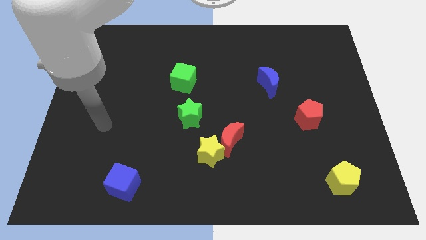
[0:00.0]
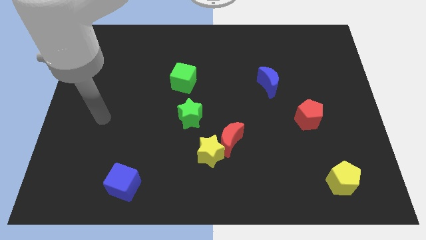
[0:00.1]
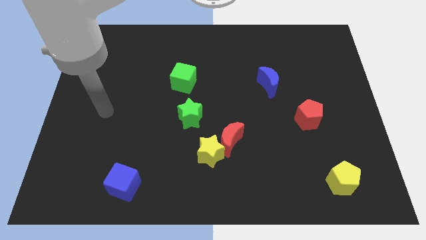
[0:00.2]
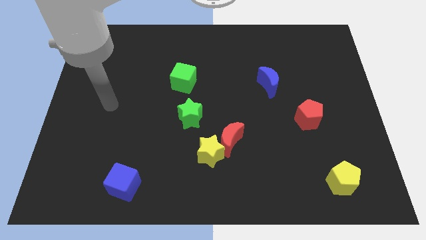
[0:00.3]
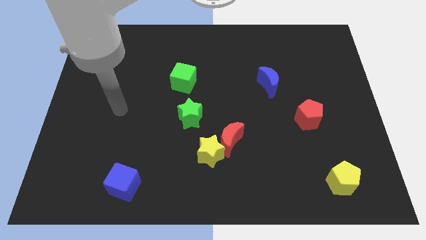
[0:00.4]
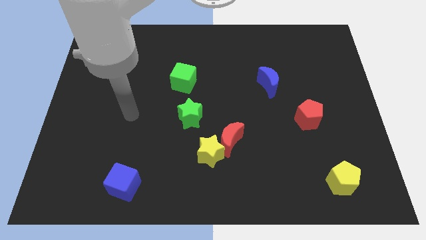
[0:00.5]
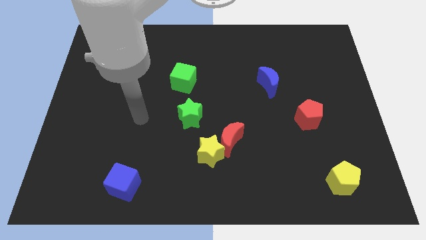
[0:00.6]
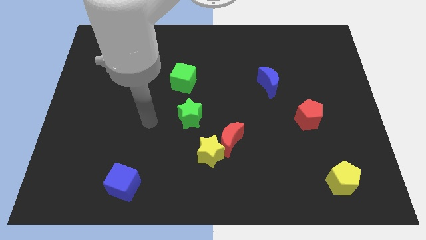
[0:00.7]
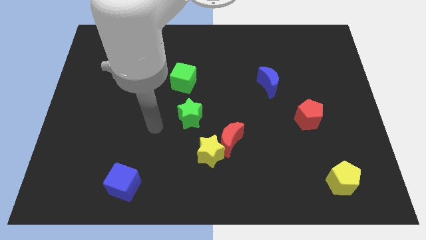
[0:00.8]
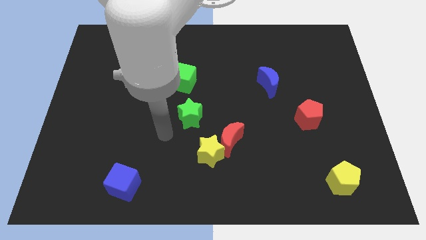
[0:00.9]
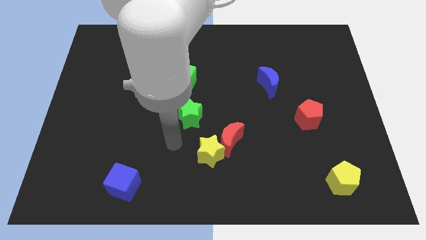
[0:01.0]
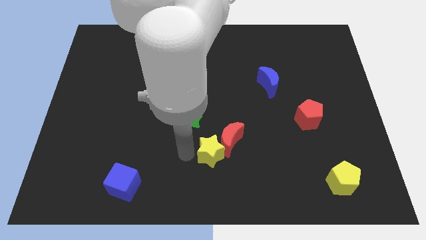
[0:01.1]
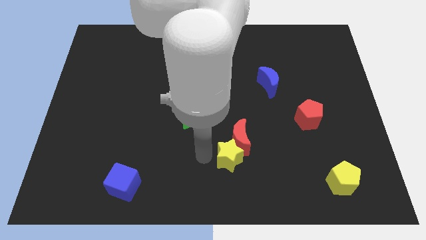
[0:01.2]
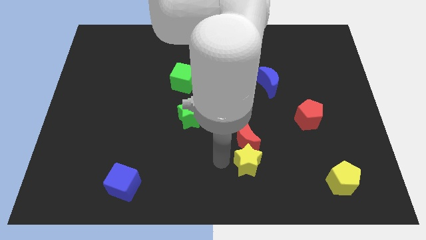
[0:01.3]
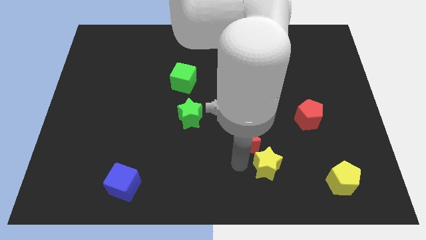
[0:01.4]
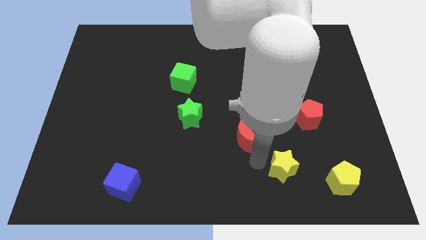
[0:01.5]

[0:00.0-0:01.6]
move the red moon away from the yellow star

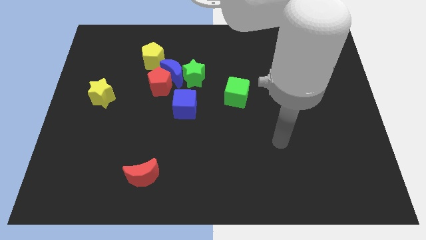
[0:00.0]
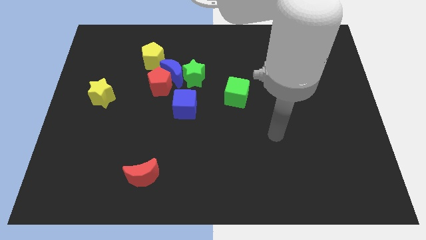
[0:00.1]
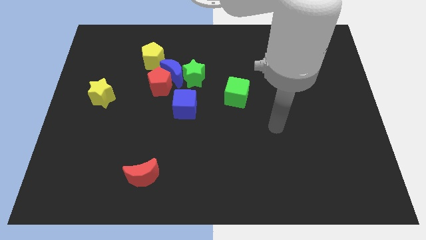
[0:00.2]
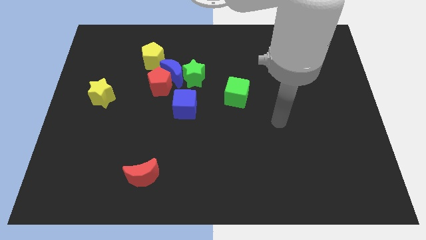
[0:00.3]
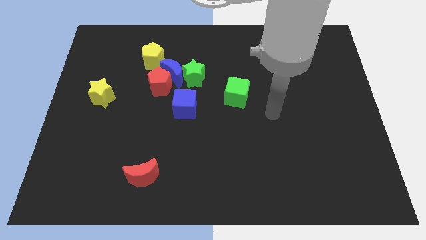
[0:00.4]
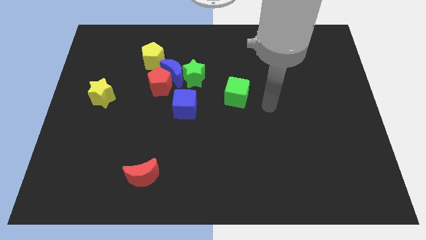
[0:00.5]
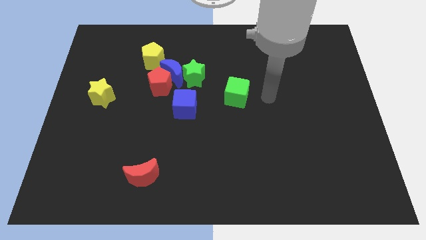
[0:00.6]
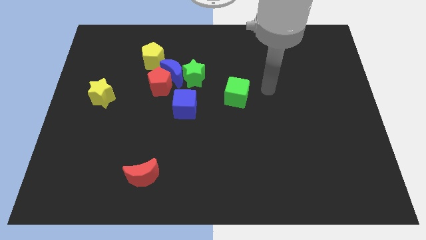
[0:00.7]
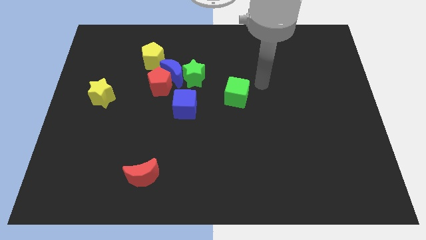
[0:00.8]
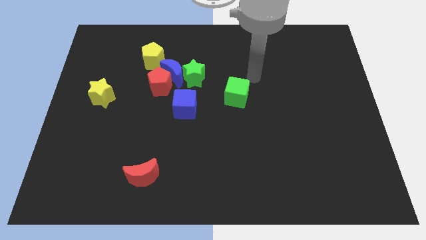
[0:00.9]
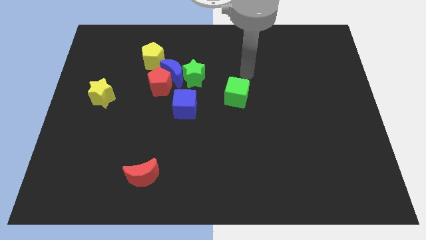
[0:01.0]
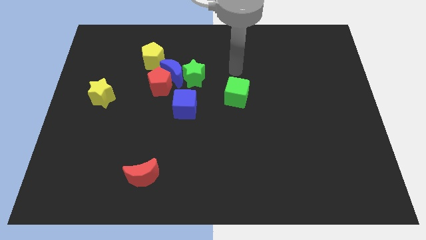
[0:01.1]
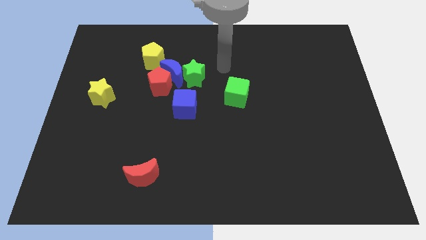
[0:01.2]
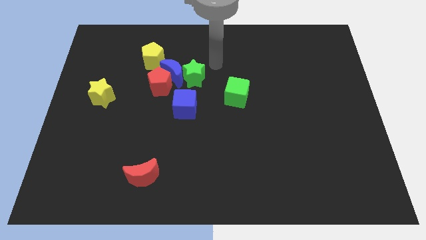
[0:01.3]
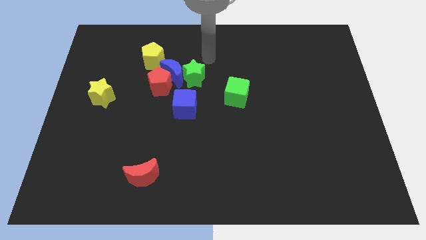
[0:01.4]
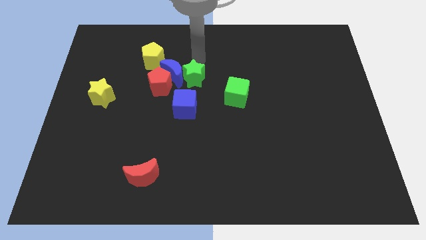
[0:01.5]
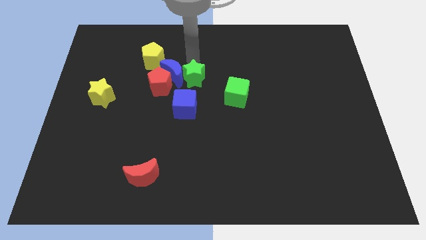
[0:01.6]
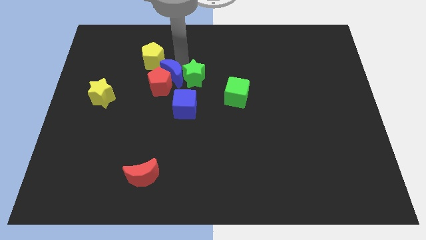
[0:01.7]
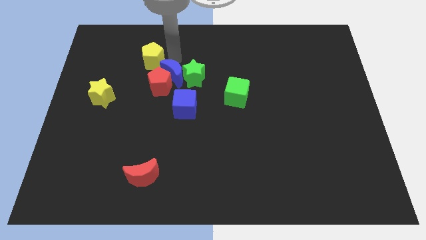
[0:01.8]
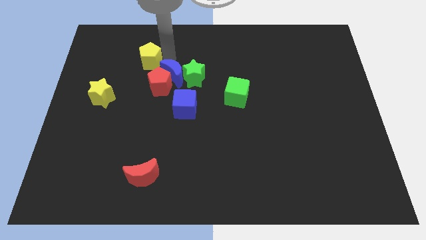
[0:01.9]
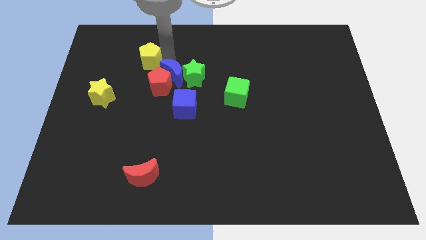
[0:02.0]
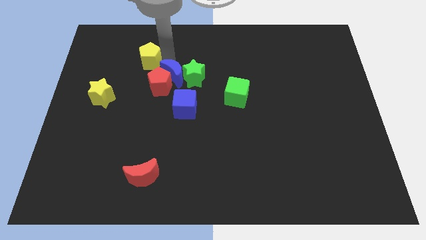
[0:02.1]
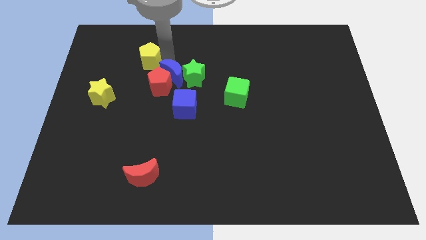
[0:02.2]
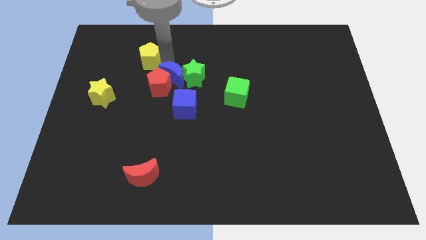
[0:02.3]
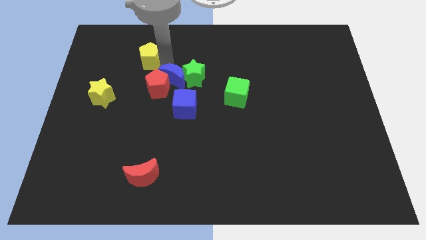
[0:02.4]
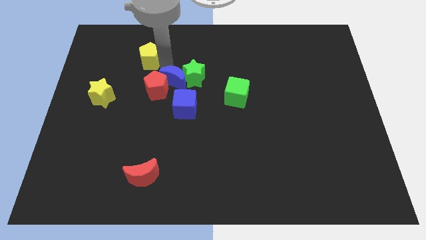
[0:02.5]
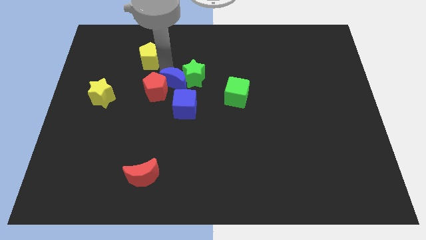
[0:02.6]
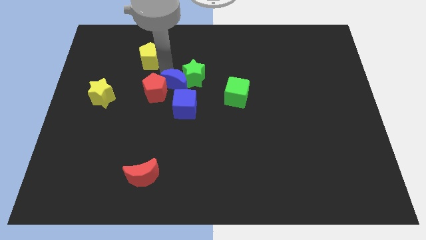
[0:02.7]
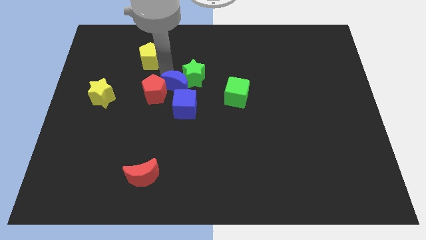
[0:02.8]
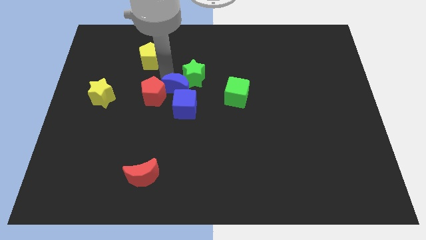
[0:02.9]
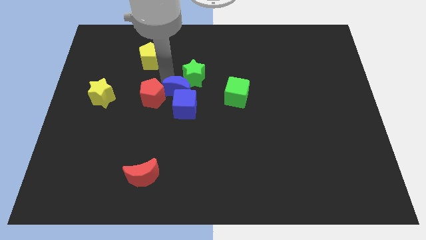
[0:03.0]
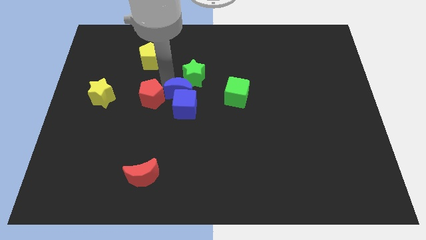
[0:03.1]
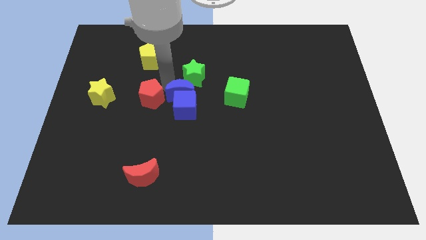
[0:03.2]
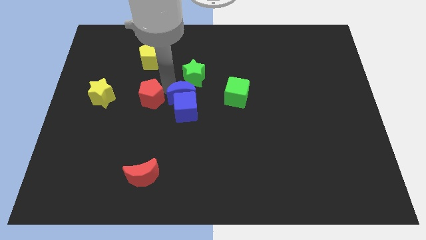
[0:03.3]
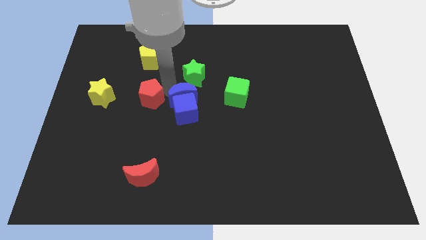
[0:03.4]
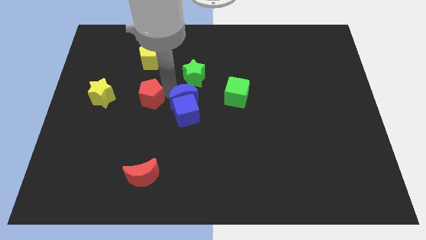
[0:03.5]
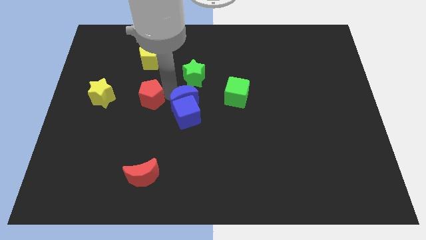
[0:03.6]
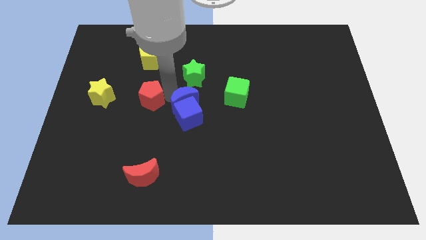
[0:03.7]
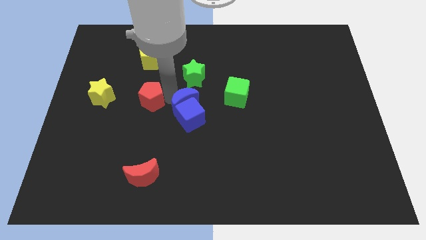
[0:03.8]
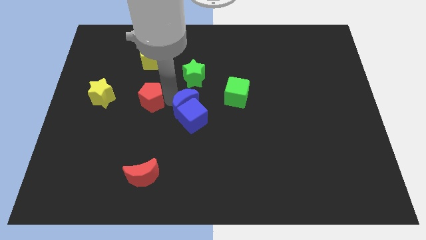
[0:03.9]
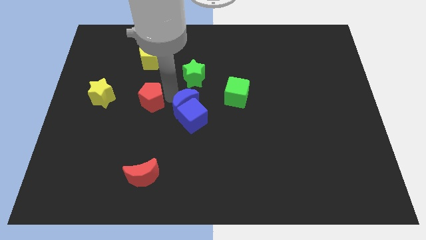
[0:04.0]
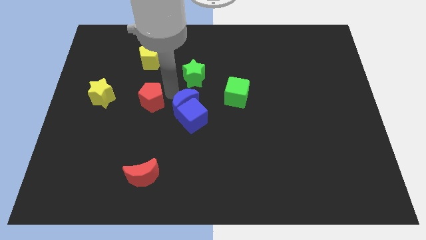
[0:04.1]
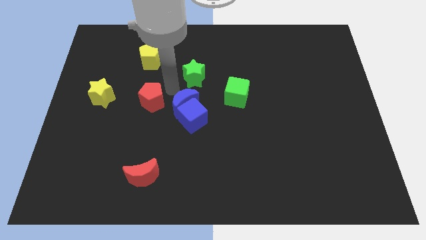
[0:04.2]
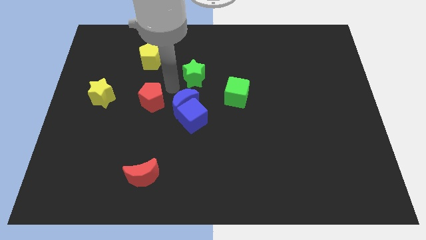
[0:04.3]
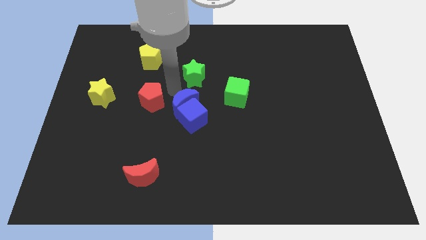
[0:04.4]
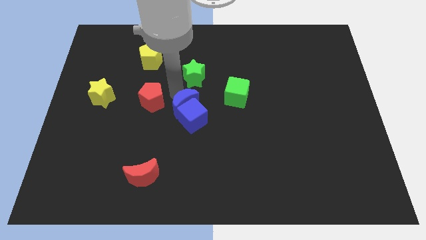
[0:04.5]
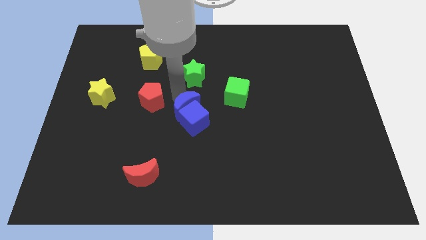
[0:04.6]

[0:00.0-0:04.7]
move the blue moon away from the clump

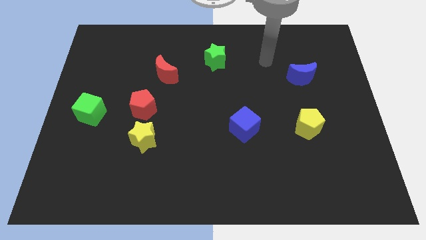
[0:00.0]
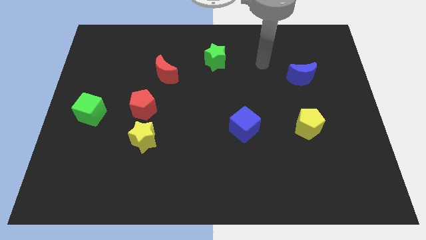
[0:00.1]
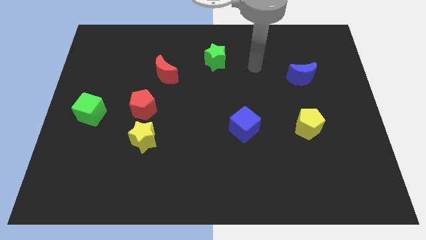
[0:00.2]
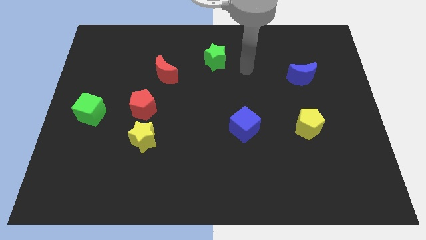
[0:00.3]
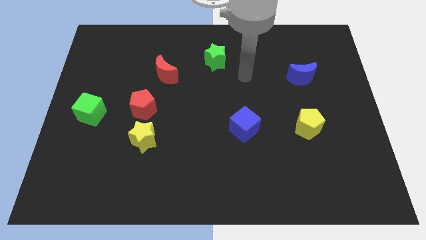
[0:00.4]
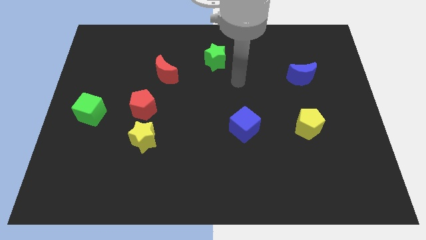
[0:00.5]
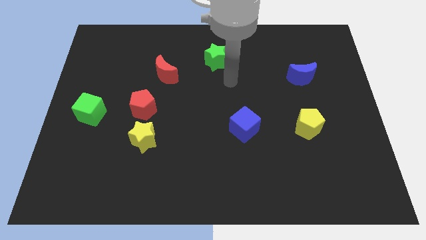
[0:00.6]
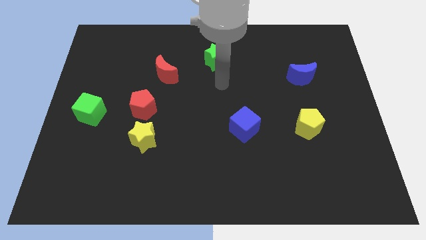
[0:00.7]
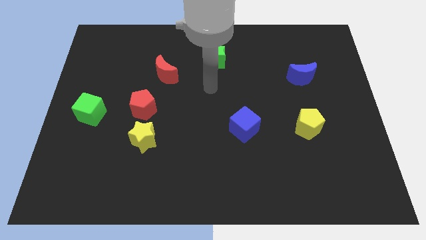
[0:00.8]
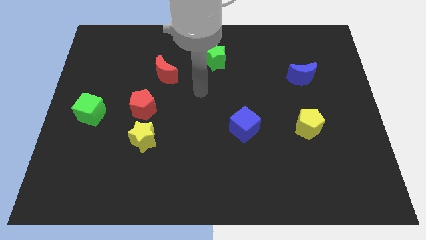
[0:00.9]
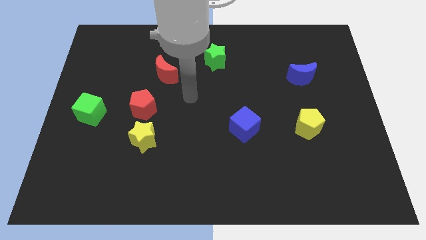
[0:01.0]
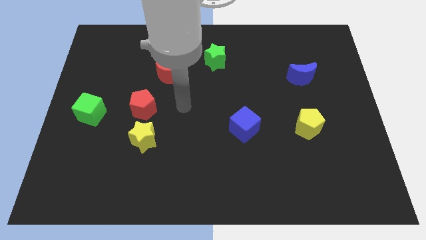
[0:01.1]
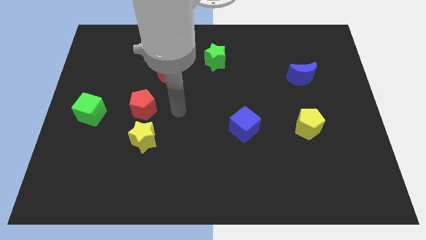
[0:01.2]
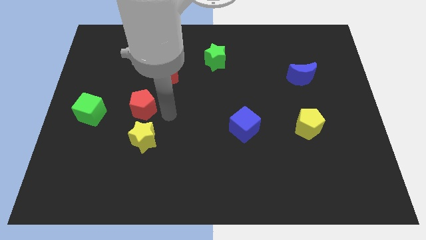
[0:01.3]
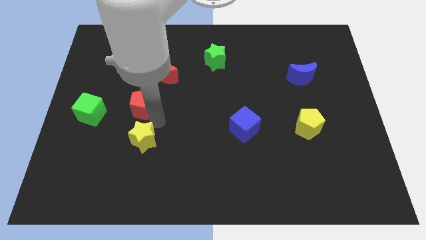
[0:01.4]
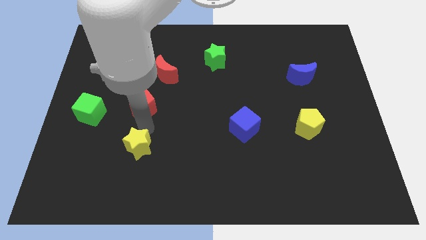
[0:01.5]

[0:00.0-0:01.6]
separate the red pentagon from the yellow star

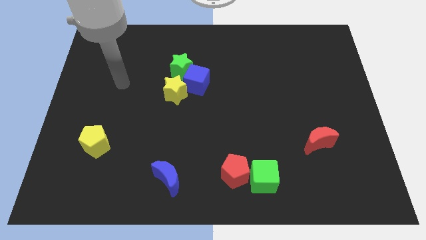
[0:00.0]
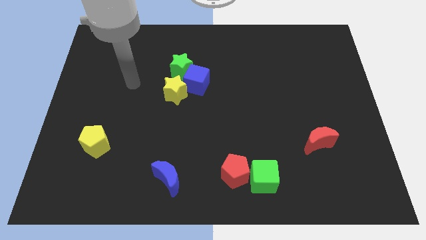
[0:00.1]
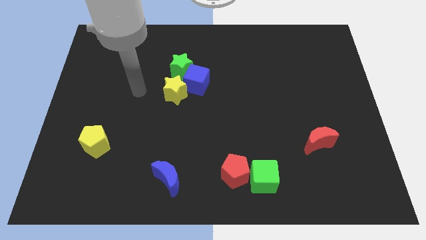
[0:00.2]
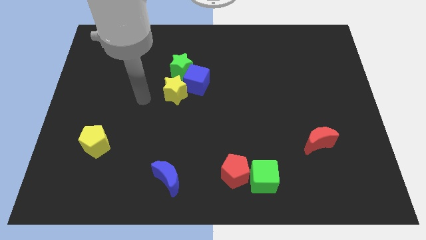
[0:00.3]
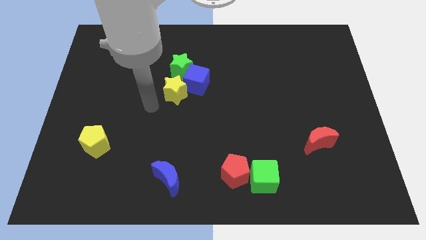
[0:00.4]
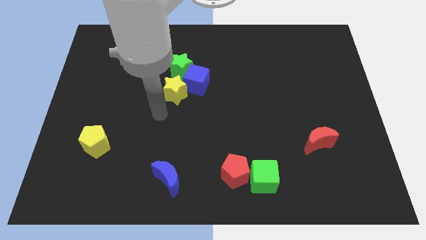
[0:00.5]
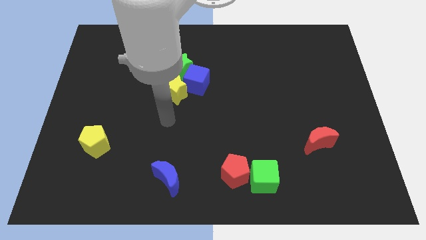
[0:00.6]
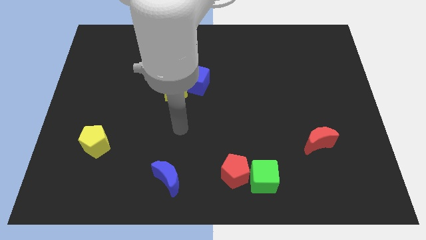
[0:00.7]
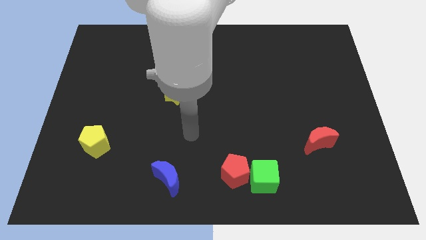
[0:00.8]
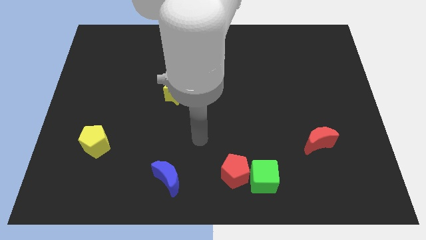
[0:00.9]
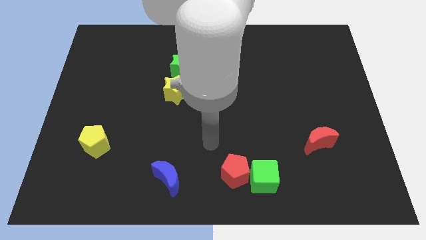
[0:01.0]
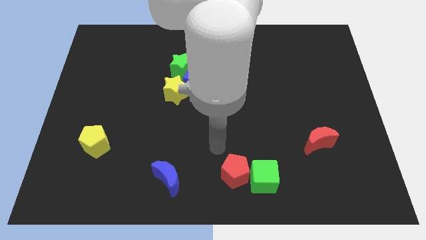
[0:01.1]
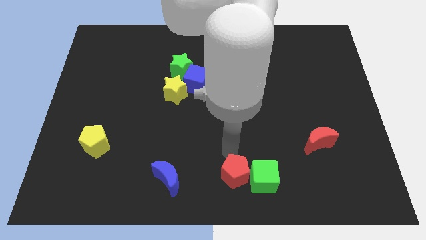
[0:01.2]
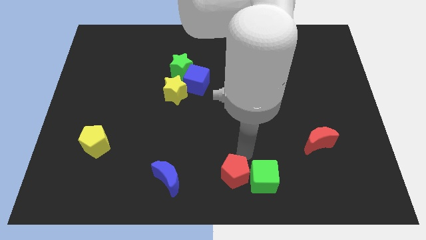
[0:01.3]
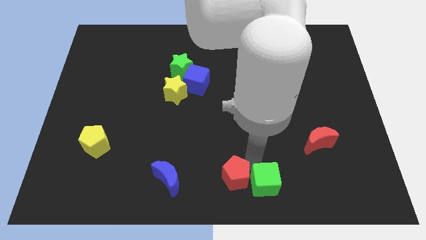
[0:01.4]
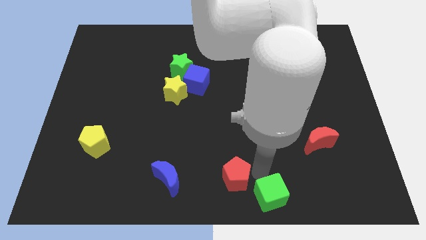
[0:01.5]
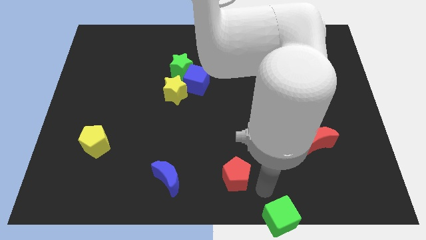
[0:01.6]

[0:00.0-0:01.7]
move the red pentagon away from the green cube
